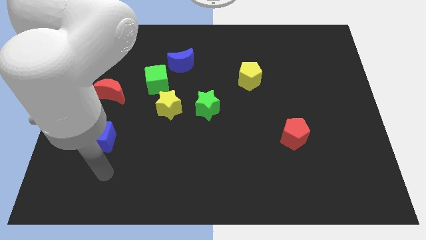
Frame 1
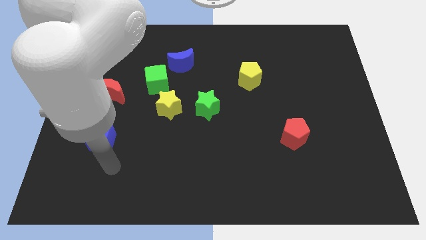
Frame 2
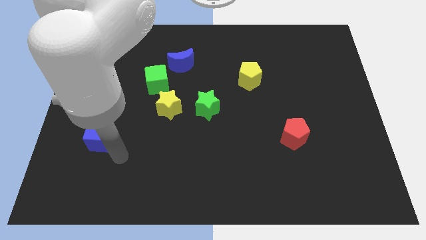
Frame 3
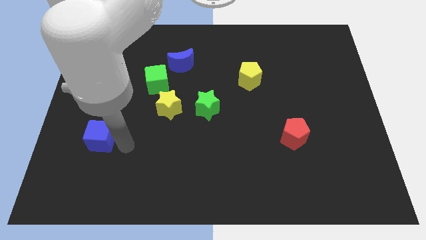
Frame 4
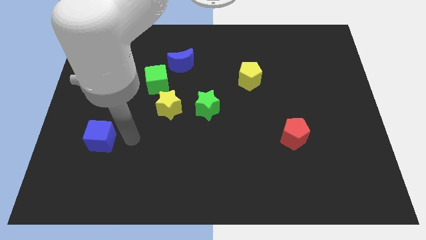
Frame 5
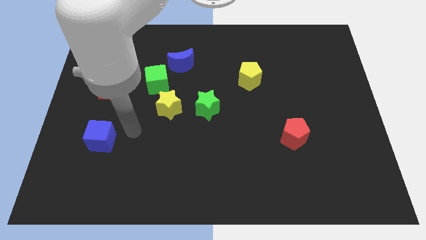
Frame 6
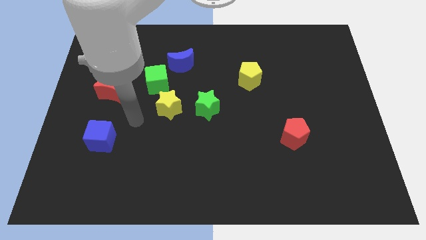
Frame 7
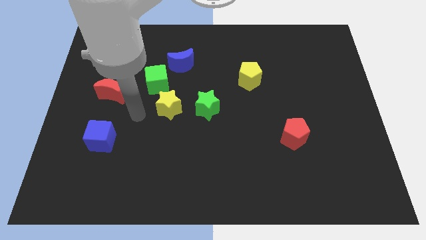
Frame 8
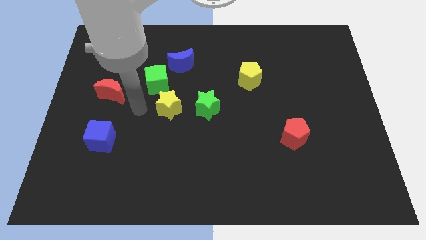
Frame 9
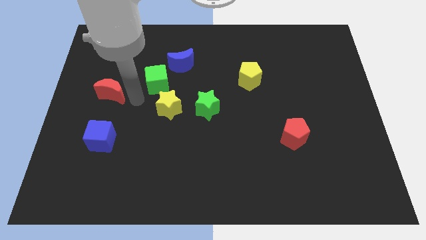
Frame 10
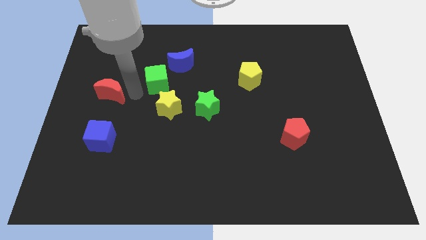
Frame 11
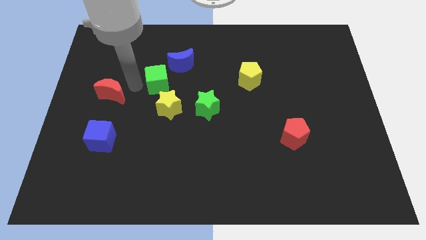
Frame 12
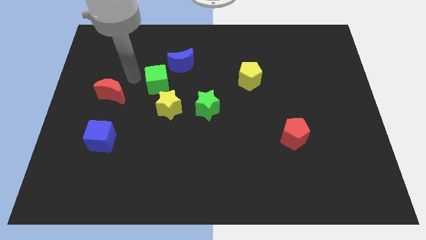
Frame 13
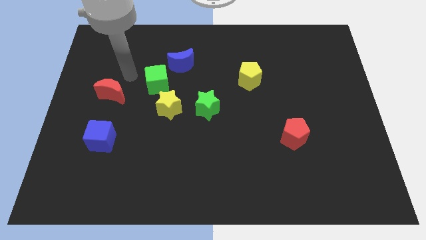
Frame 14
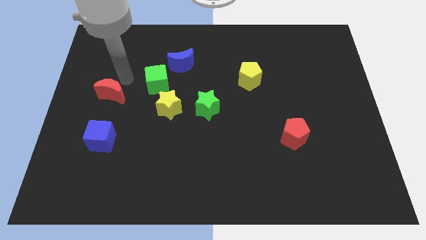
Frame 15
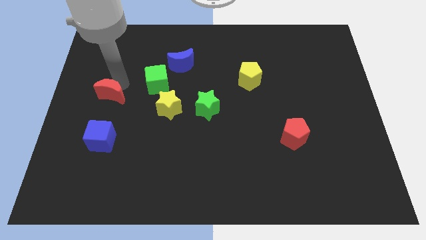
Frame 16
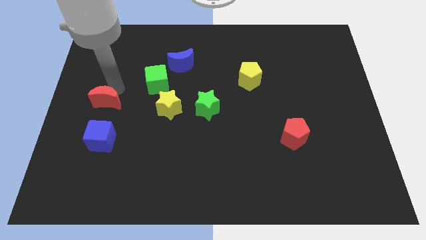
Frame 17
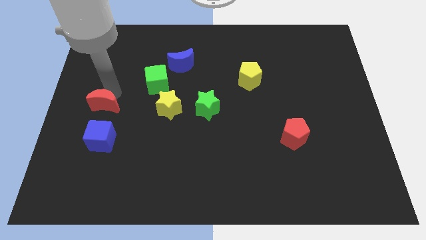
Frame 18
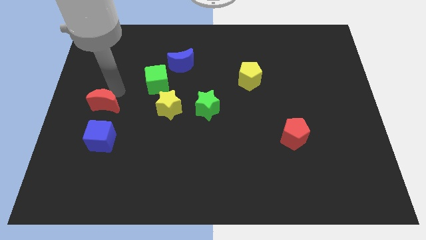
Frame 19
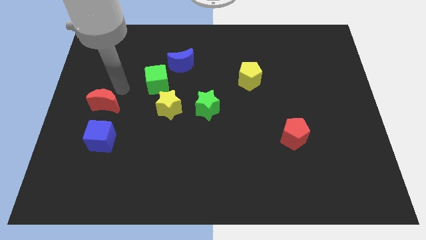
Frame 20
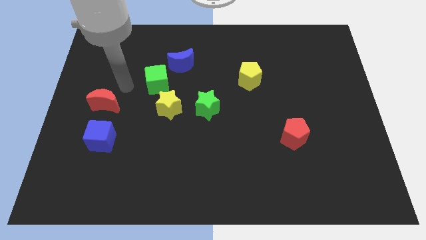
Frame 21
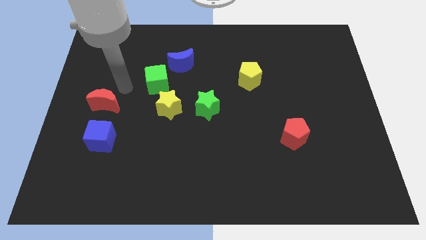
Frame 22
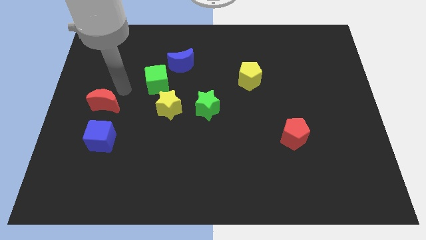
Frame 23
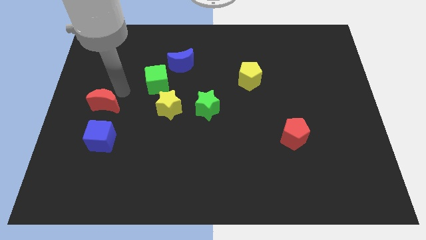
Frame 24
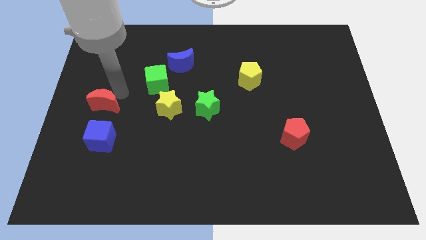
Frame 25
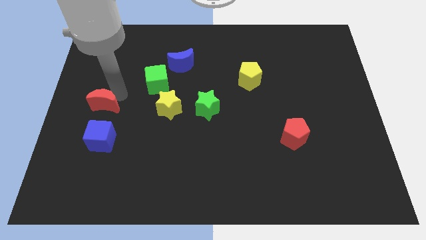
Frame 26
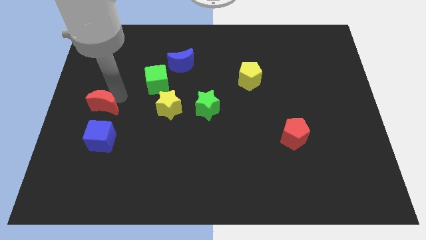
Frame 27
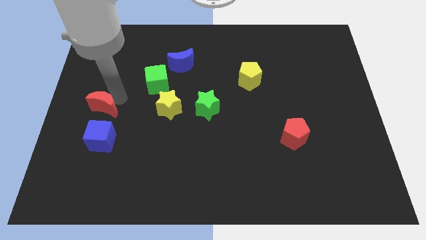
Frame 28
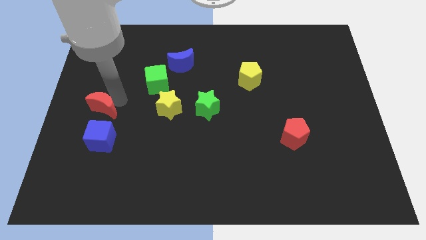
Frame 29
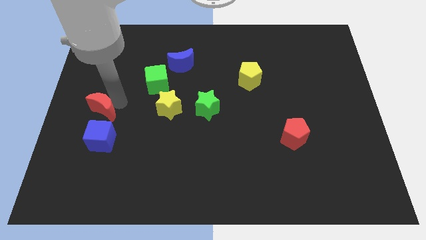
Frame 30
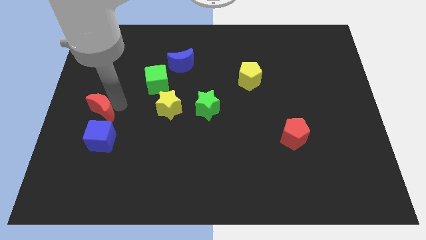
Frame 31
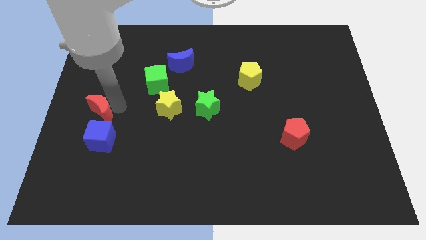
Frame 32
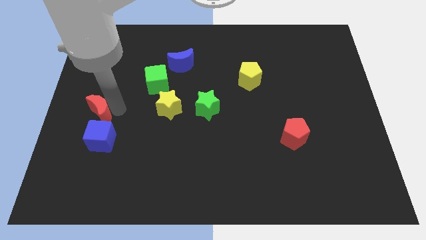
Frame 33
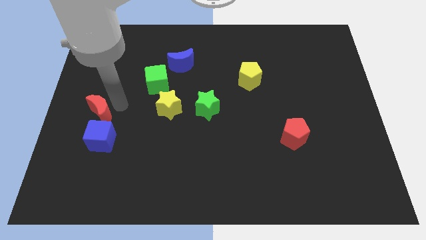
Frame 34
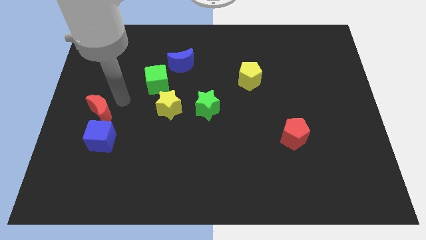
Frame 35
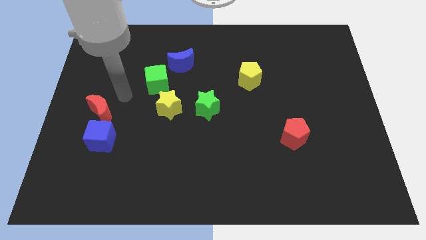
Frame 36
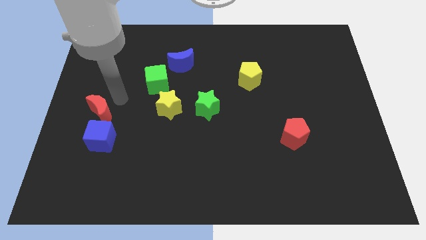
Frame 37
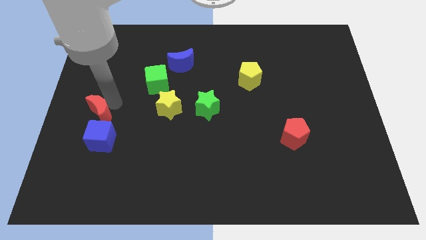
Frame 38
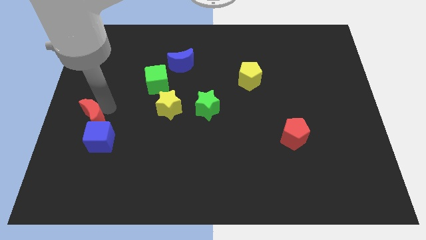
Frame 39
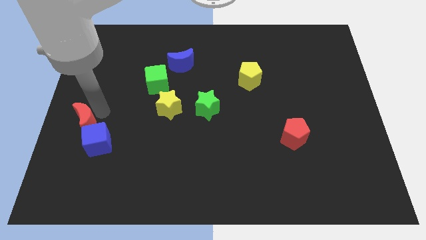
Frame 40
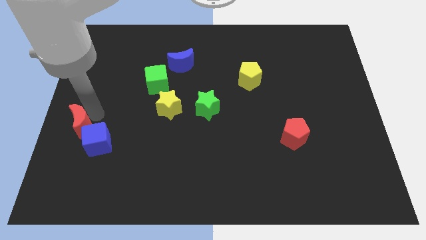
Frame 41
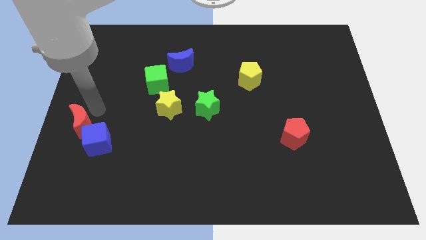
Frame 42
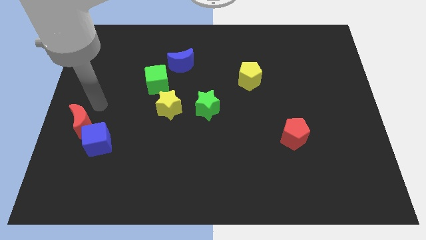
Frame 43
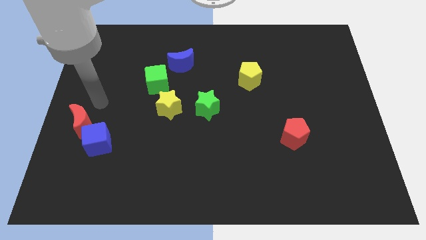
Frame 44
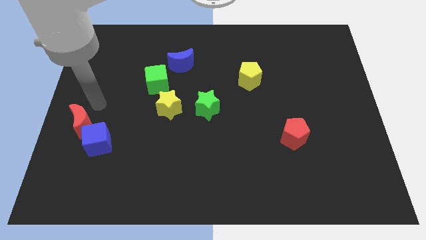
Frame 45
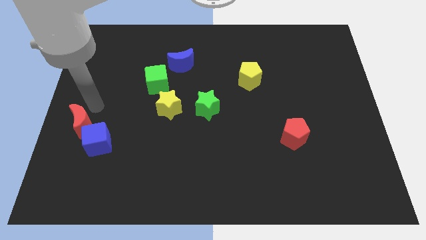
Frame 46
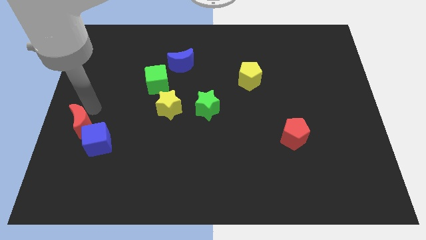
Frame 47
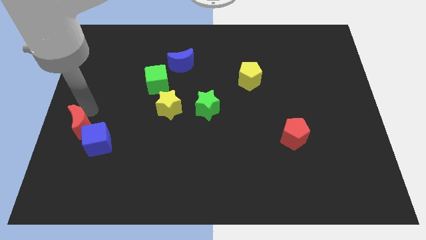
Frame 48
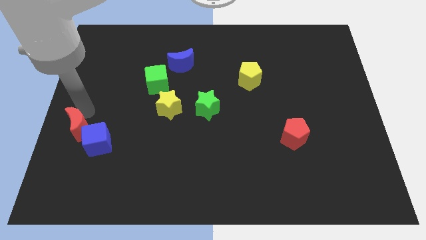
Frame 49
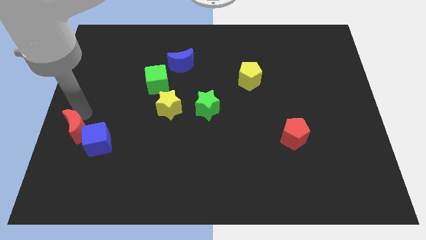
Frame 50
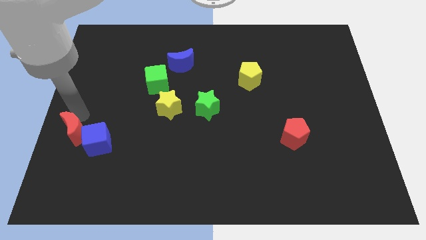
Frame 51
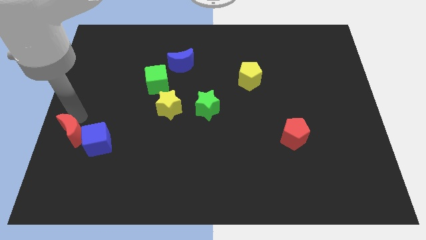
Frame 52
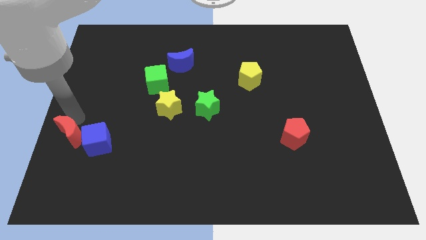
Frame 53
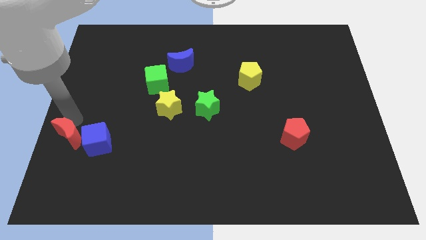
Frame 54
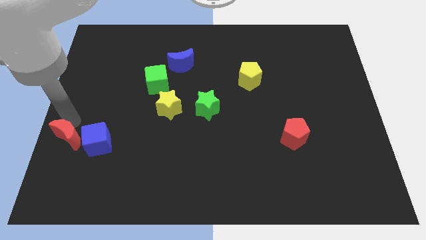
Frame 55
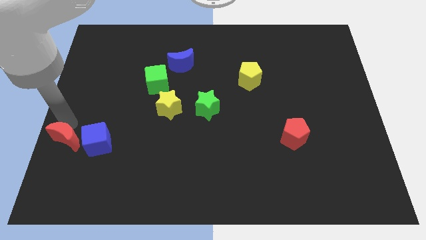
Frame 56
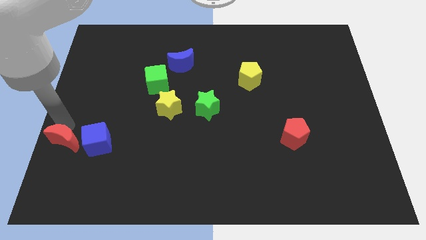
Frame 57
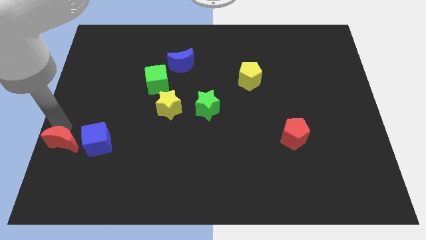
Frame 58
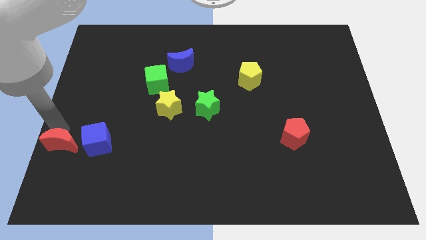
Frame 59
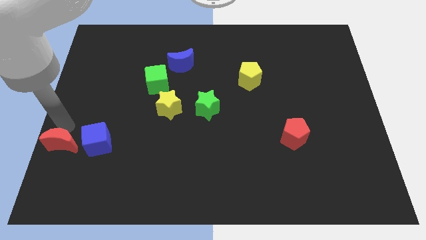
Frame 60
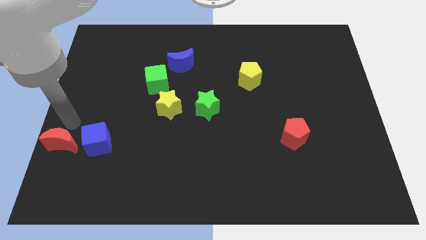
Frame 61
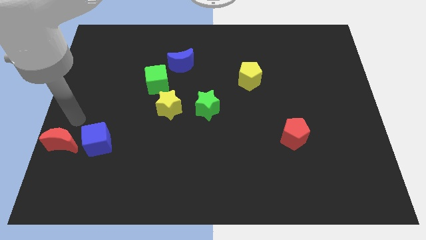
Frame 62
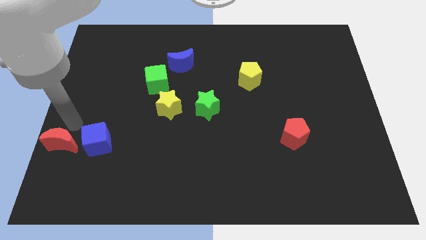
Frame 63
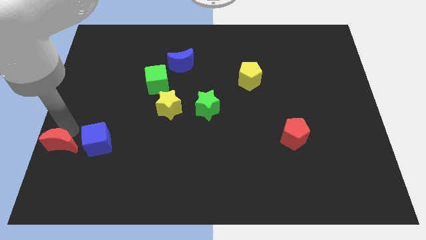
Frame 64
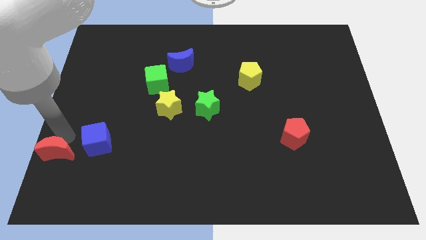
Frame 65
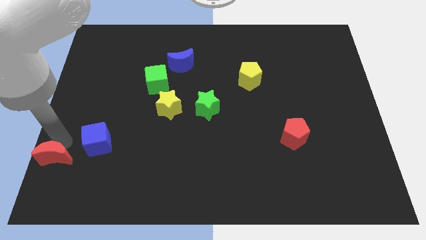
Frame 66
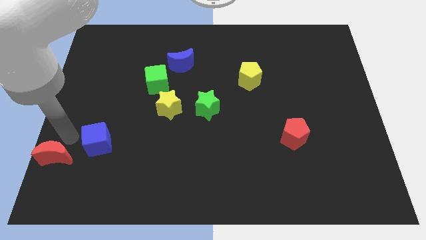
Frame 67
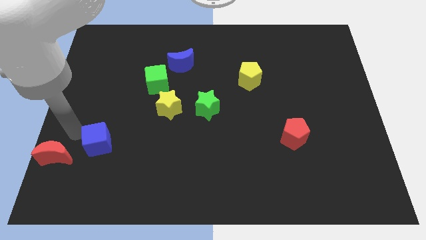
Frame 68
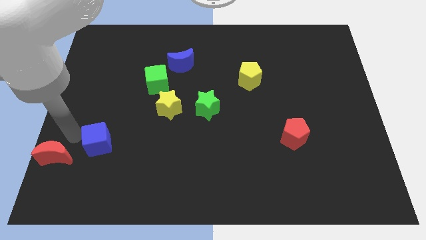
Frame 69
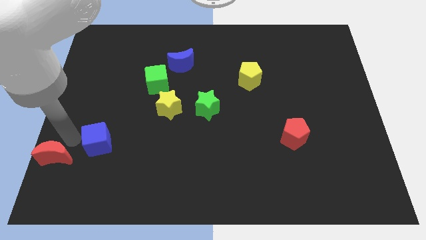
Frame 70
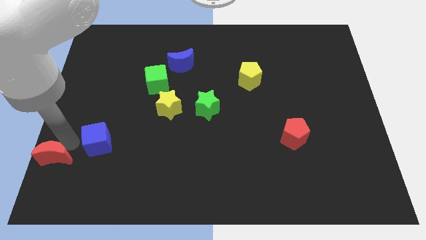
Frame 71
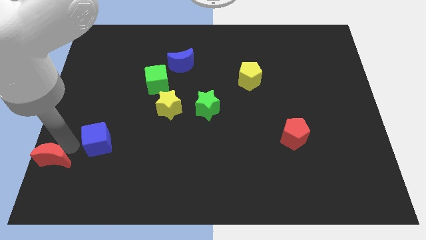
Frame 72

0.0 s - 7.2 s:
push the red moon to the bottom left of the board
